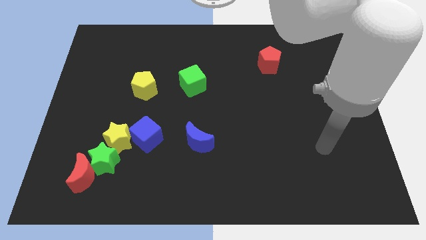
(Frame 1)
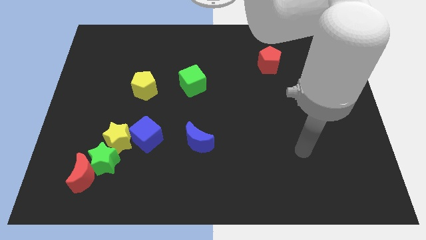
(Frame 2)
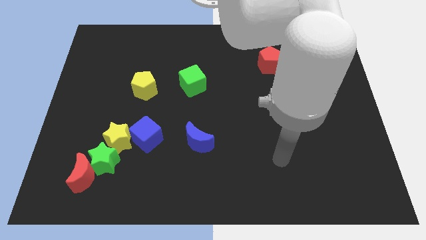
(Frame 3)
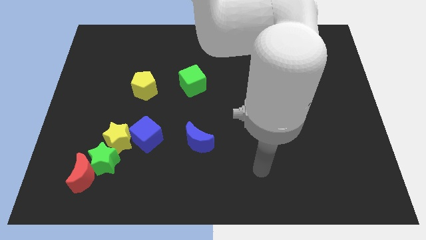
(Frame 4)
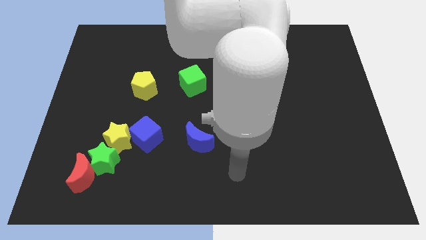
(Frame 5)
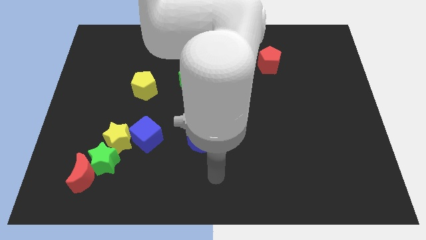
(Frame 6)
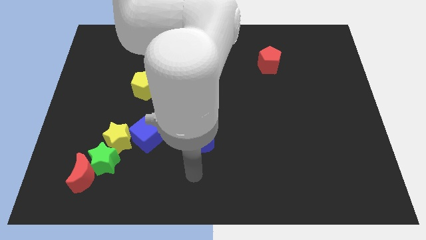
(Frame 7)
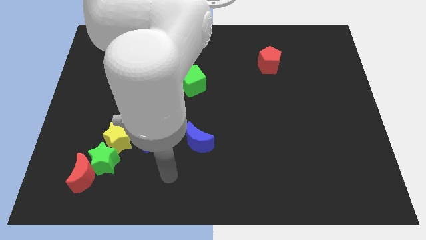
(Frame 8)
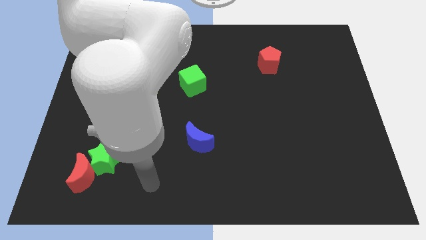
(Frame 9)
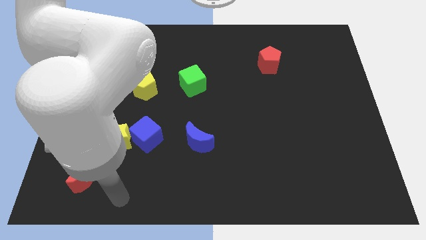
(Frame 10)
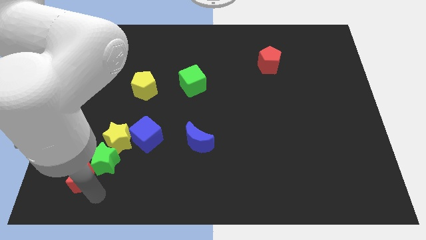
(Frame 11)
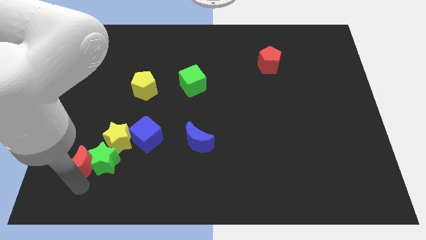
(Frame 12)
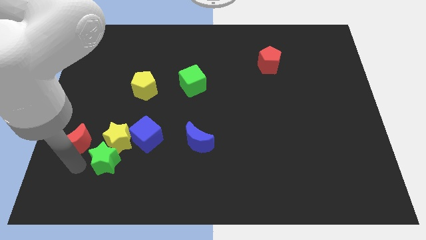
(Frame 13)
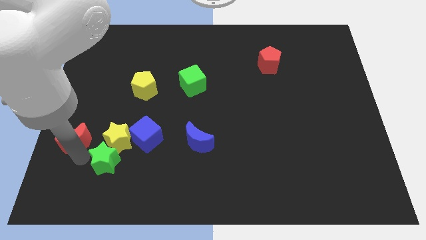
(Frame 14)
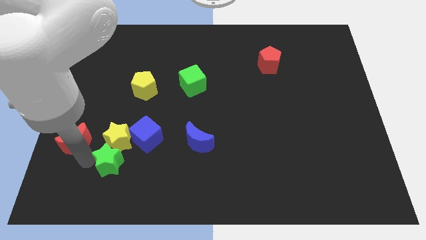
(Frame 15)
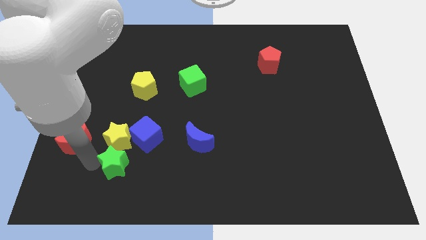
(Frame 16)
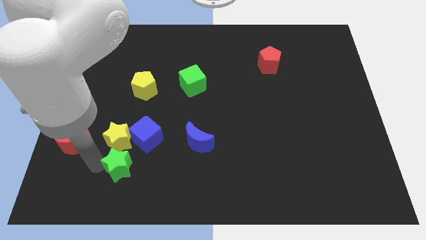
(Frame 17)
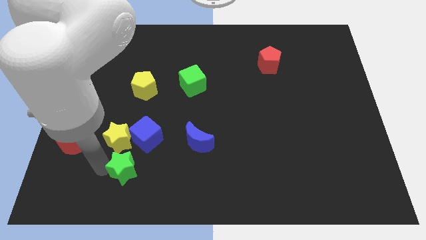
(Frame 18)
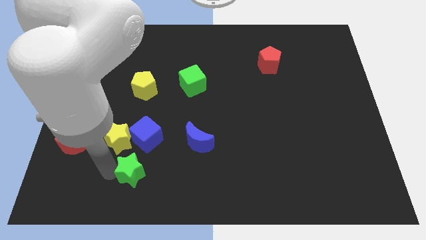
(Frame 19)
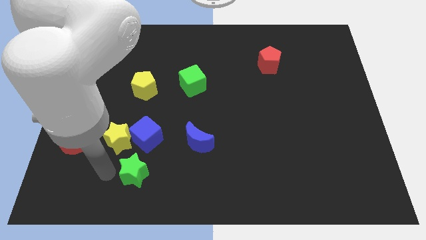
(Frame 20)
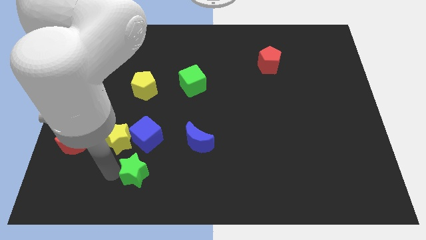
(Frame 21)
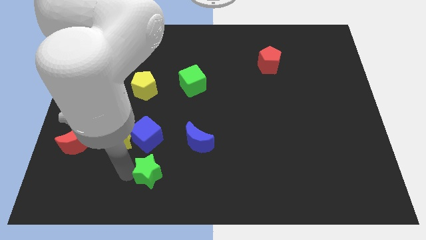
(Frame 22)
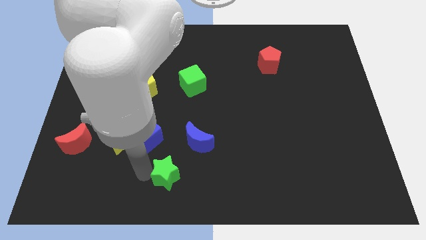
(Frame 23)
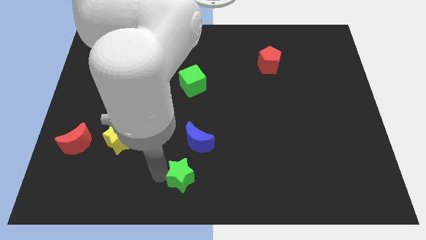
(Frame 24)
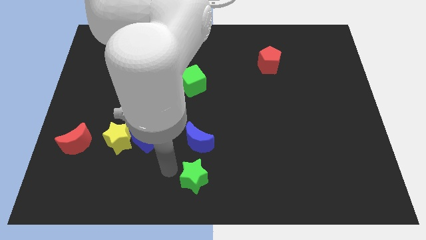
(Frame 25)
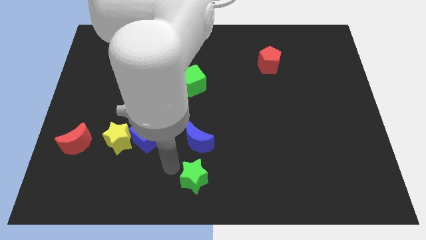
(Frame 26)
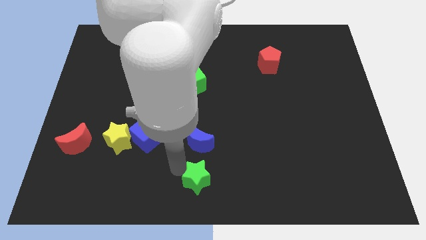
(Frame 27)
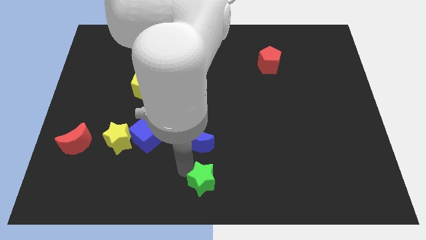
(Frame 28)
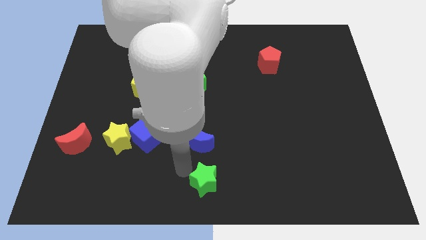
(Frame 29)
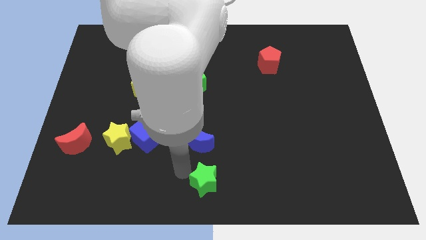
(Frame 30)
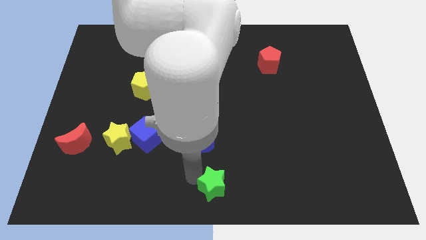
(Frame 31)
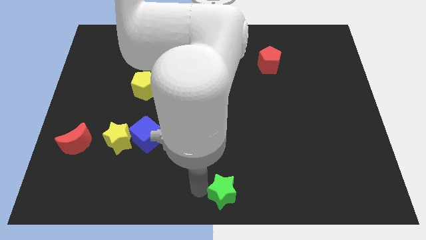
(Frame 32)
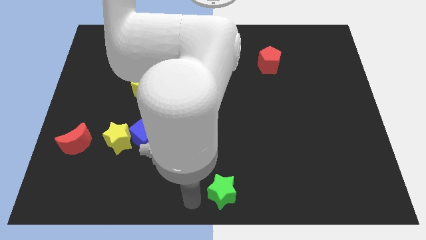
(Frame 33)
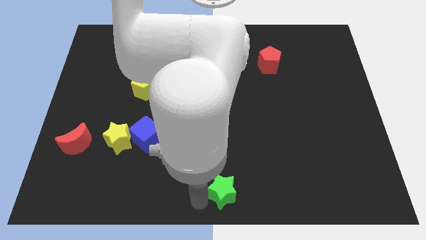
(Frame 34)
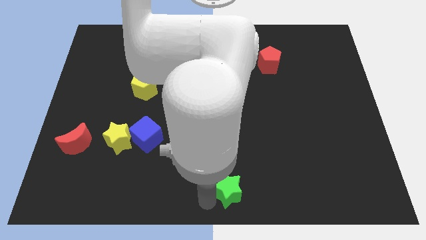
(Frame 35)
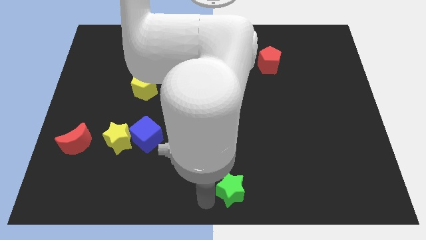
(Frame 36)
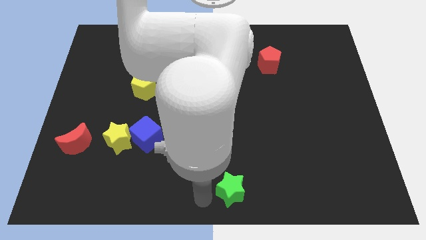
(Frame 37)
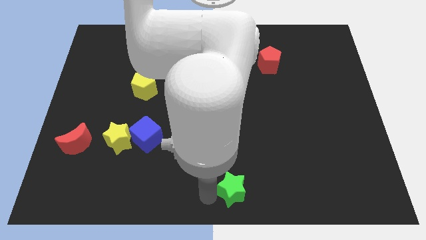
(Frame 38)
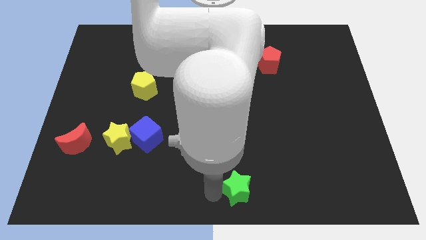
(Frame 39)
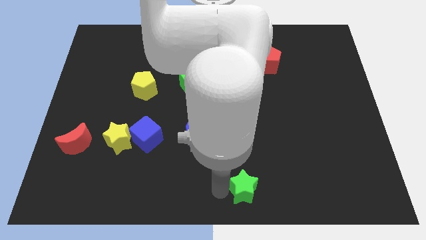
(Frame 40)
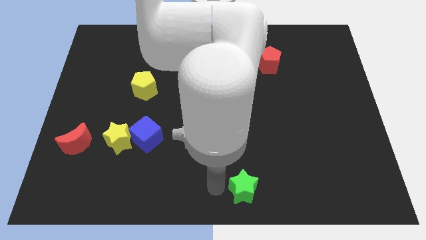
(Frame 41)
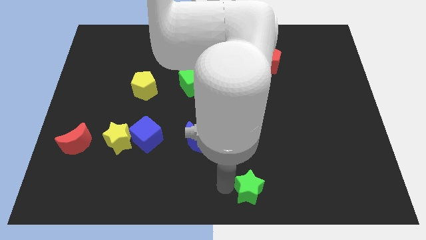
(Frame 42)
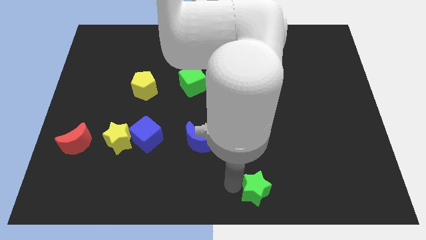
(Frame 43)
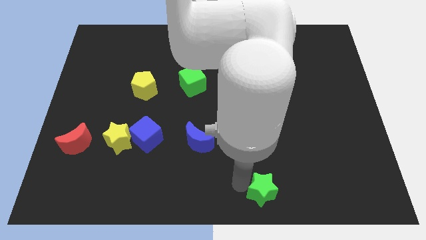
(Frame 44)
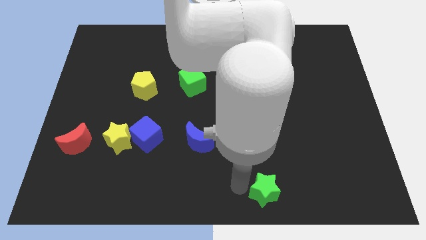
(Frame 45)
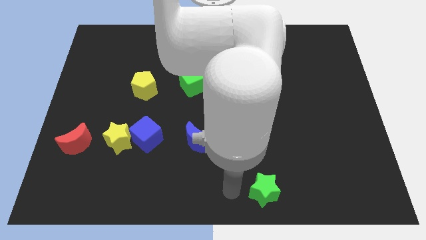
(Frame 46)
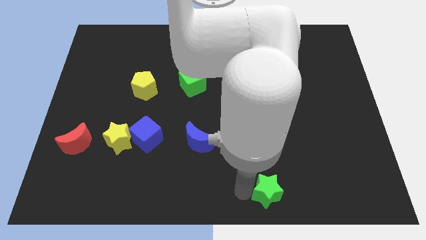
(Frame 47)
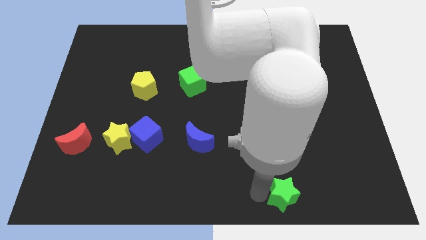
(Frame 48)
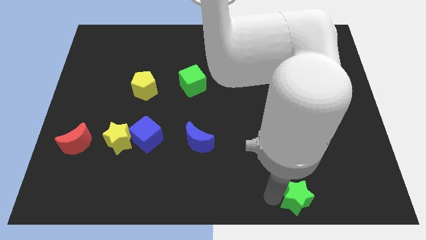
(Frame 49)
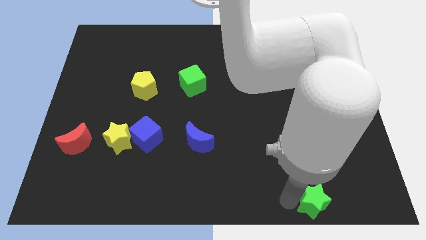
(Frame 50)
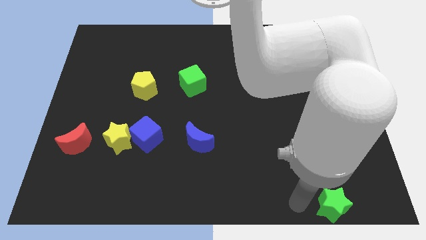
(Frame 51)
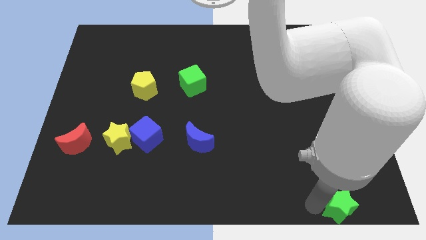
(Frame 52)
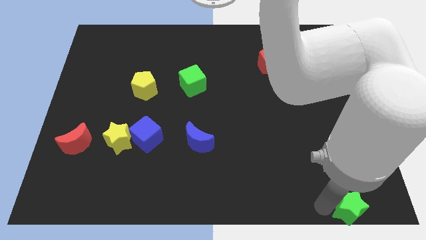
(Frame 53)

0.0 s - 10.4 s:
move the green star to the bottom right of the board

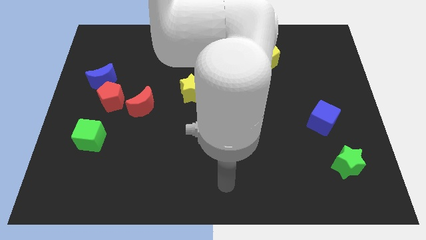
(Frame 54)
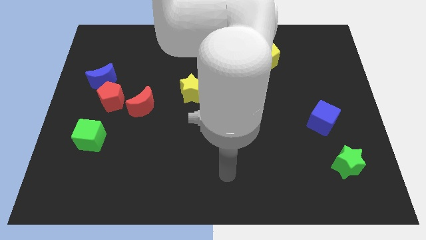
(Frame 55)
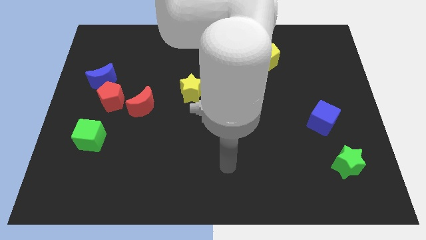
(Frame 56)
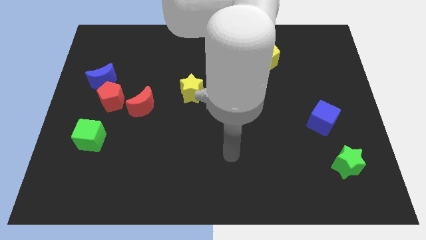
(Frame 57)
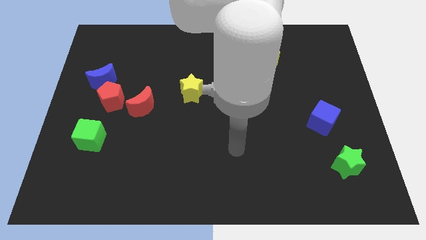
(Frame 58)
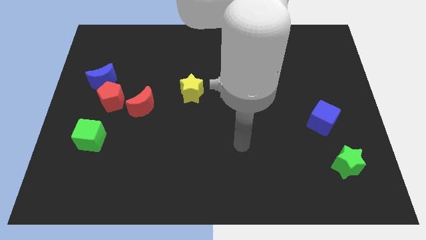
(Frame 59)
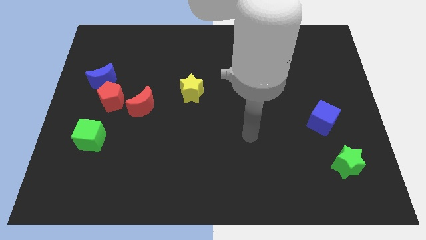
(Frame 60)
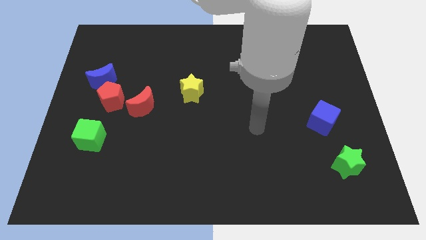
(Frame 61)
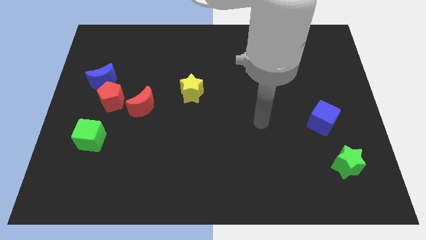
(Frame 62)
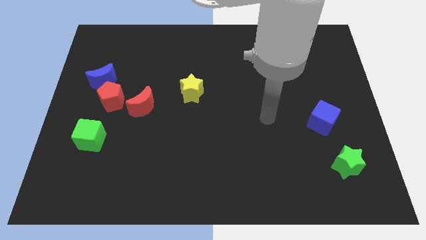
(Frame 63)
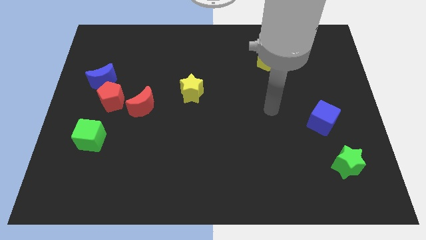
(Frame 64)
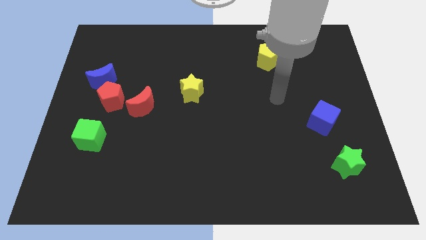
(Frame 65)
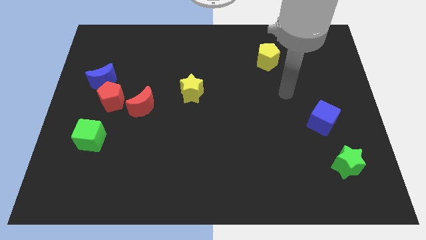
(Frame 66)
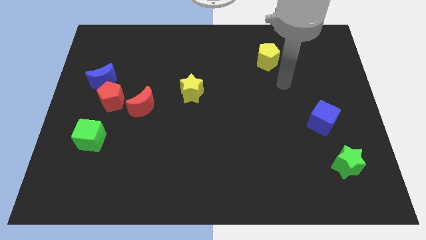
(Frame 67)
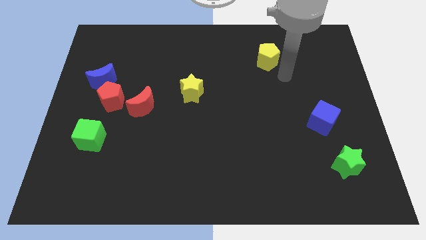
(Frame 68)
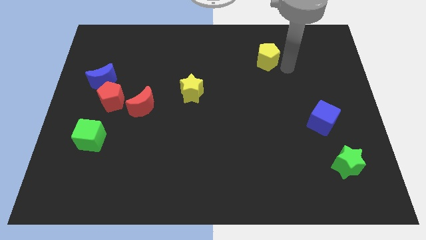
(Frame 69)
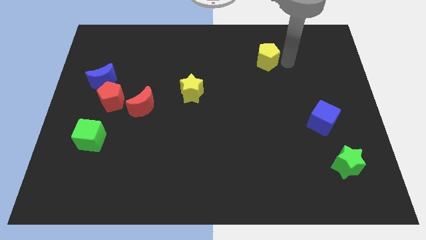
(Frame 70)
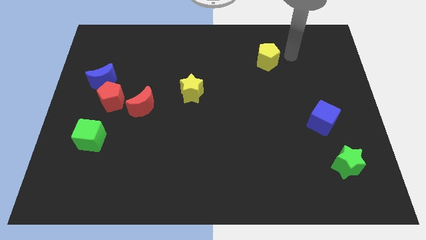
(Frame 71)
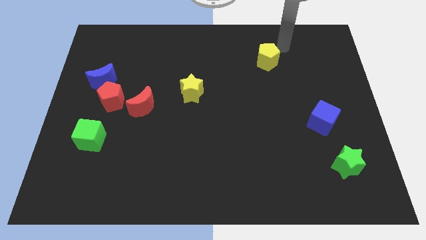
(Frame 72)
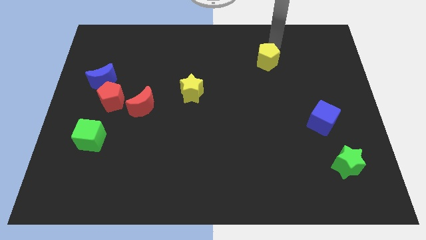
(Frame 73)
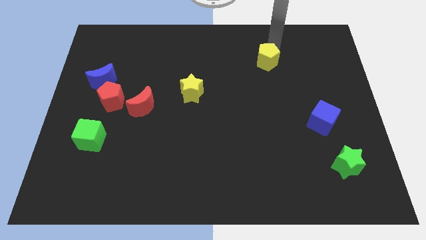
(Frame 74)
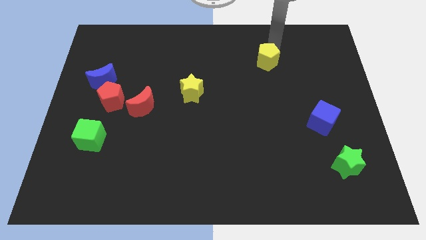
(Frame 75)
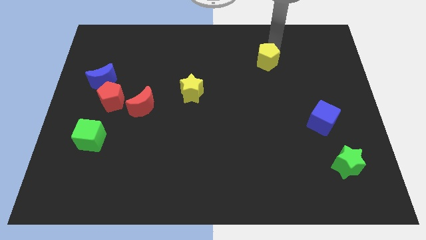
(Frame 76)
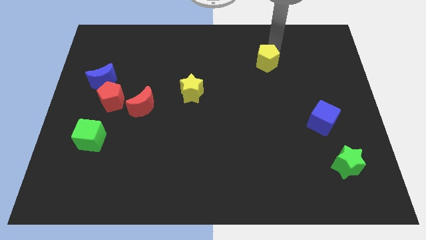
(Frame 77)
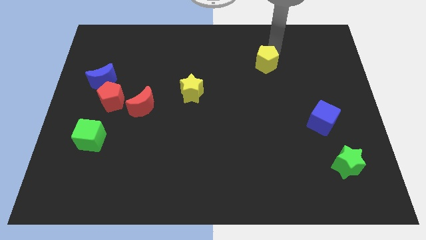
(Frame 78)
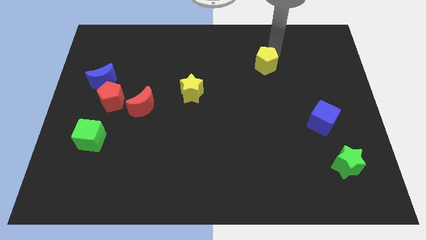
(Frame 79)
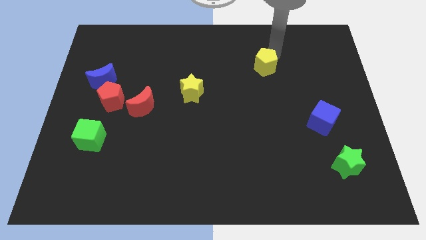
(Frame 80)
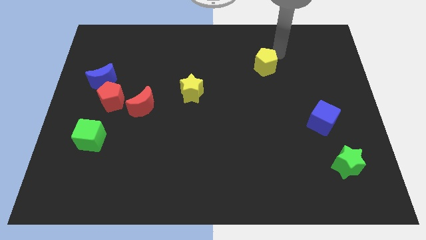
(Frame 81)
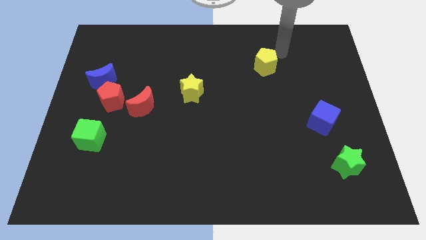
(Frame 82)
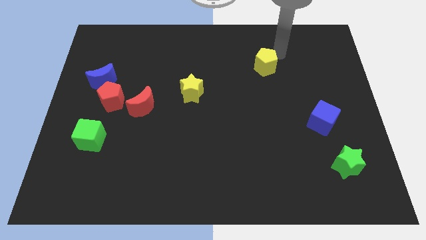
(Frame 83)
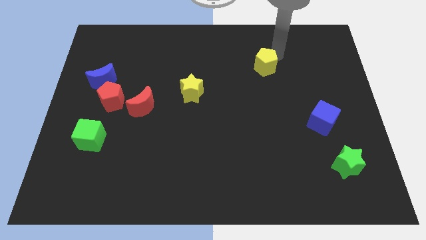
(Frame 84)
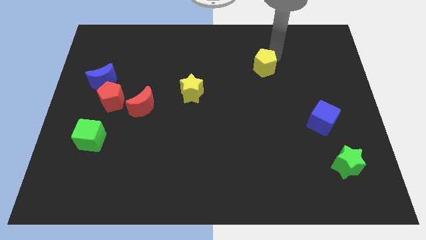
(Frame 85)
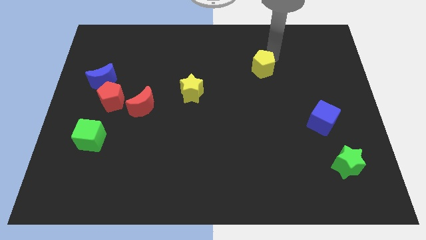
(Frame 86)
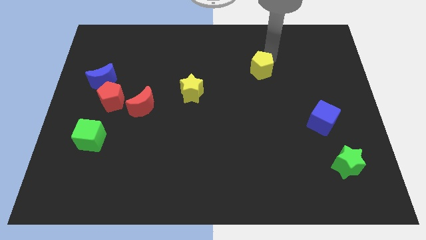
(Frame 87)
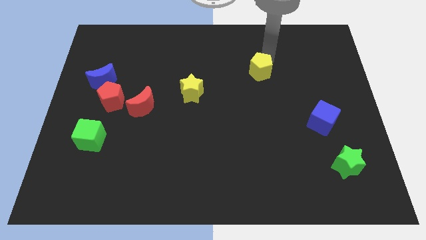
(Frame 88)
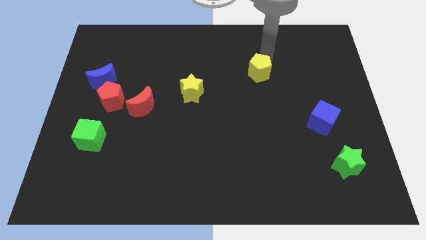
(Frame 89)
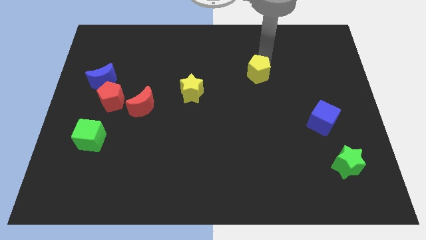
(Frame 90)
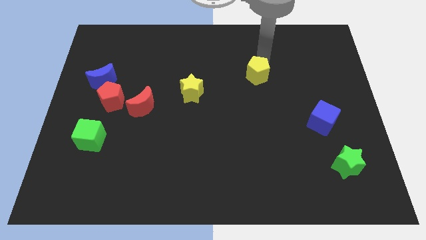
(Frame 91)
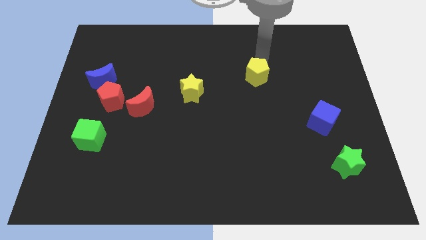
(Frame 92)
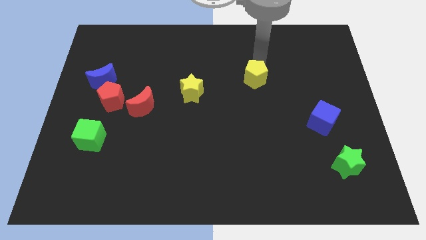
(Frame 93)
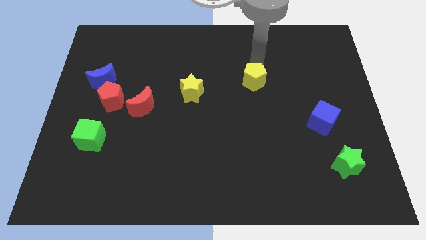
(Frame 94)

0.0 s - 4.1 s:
push the yellow pentagon to the middle
